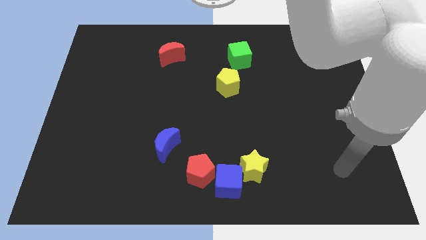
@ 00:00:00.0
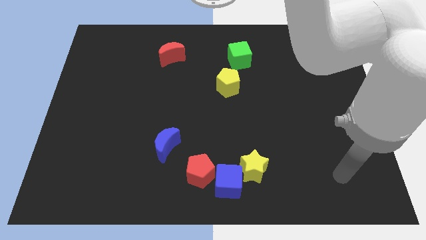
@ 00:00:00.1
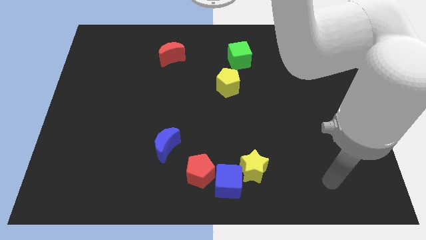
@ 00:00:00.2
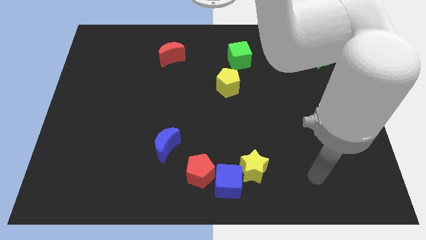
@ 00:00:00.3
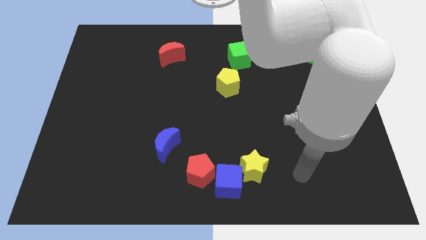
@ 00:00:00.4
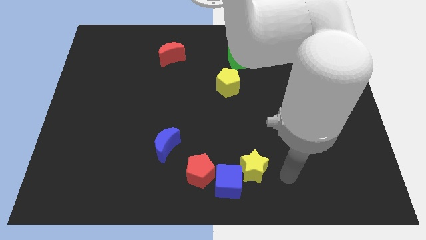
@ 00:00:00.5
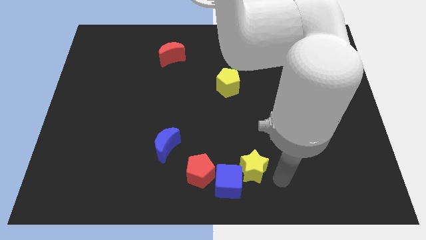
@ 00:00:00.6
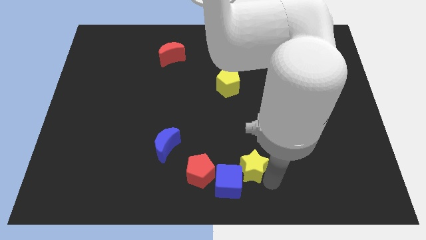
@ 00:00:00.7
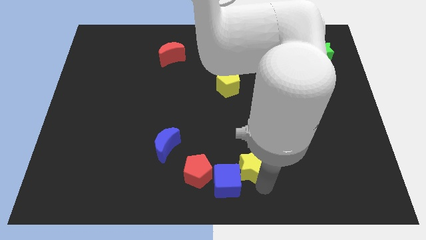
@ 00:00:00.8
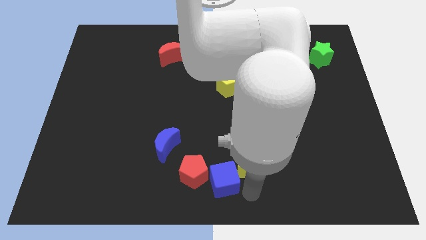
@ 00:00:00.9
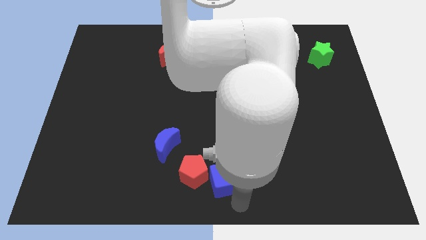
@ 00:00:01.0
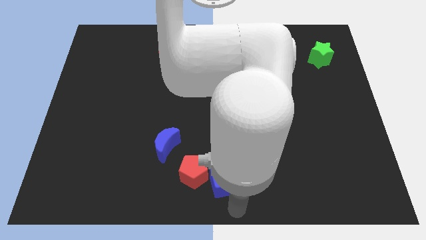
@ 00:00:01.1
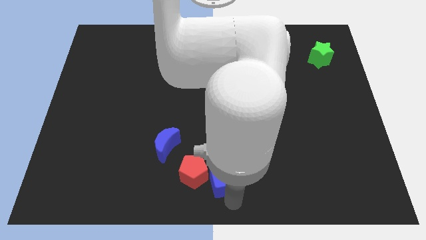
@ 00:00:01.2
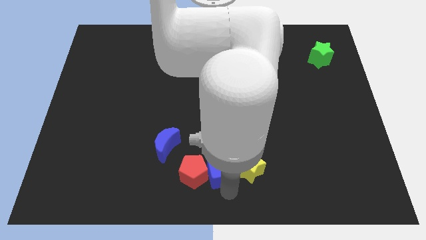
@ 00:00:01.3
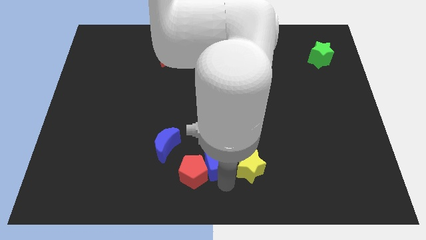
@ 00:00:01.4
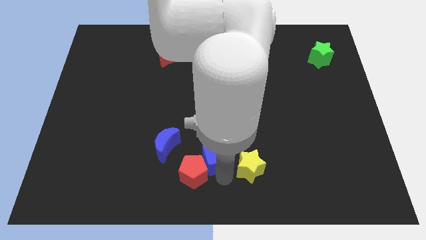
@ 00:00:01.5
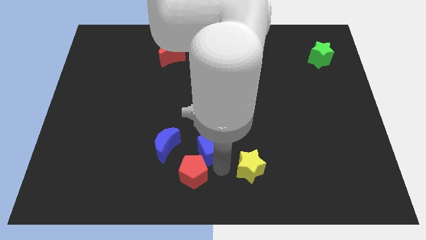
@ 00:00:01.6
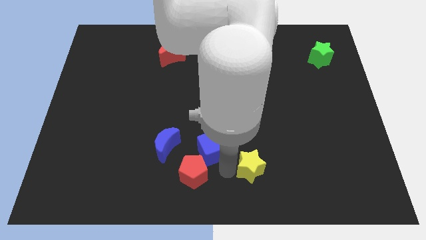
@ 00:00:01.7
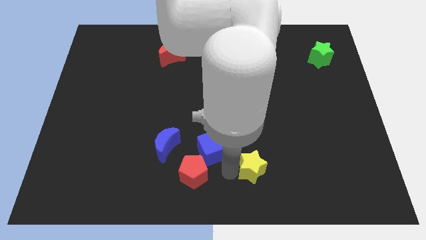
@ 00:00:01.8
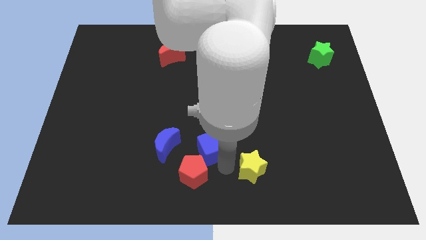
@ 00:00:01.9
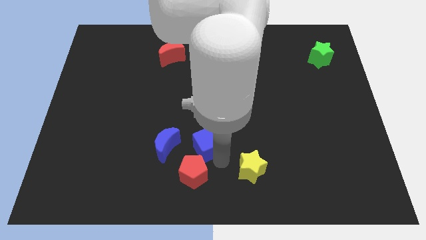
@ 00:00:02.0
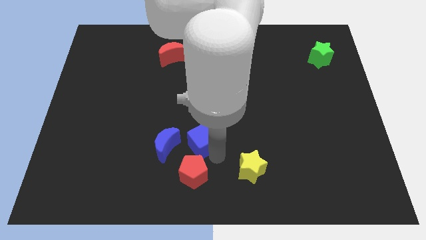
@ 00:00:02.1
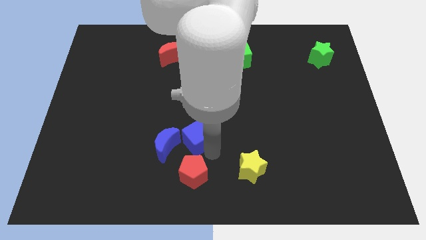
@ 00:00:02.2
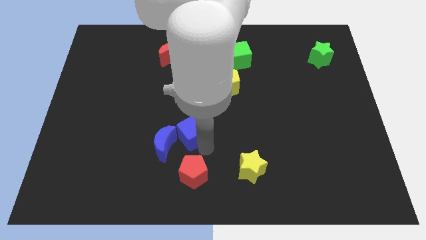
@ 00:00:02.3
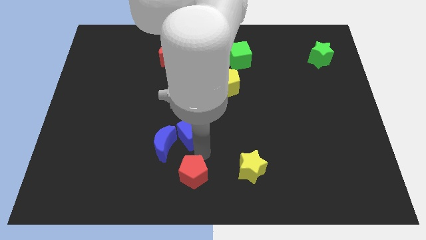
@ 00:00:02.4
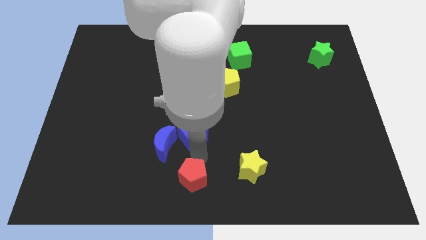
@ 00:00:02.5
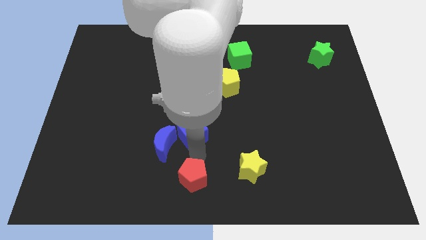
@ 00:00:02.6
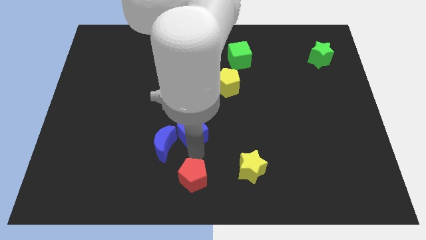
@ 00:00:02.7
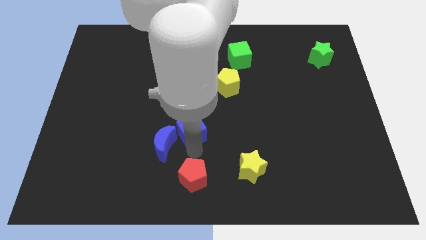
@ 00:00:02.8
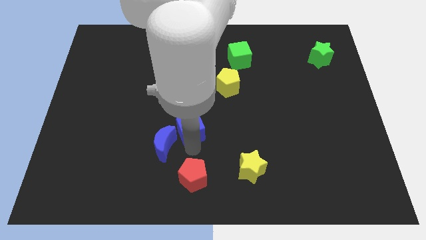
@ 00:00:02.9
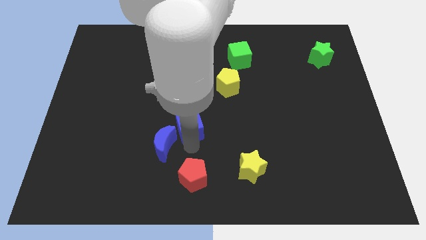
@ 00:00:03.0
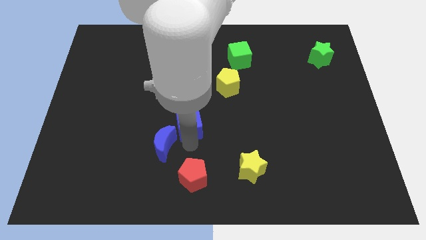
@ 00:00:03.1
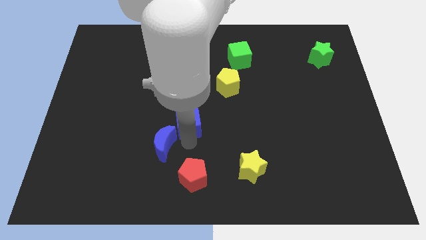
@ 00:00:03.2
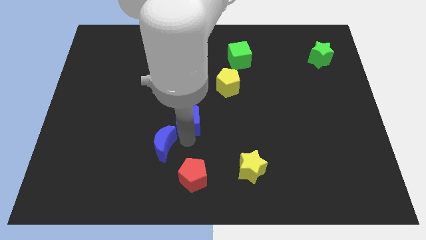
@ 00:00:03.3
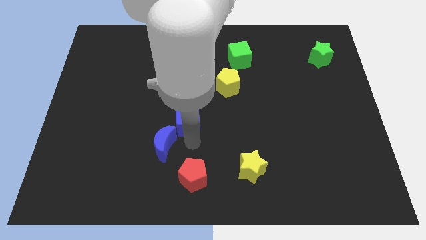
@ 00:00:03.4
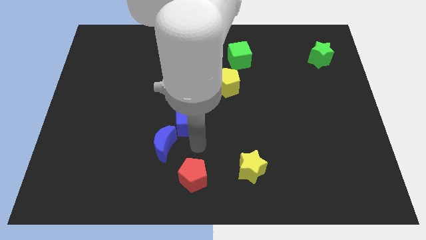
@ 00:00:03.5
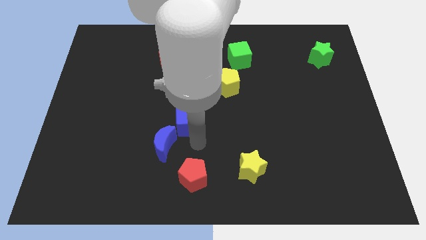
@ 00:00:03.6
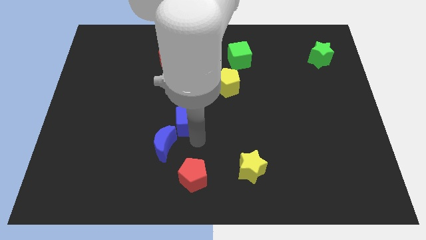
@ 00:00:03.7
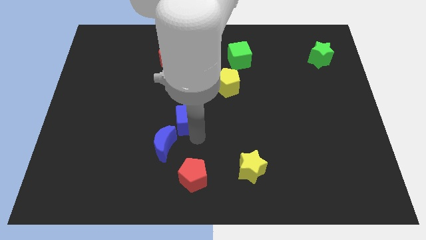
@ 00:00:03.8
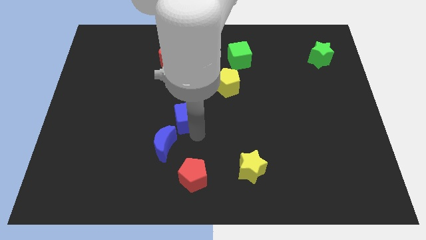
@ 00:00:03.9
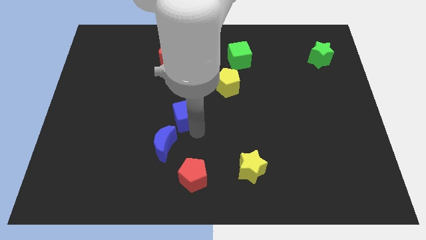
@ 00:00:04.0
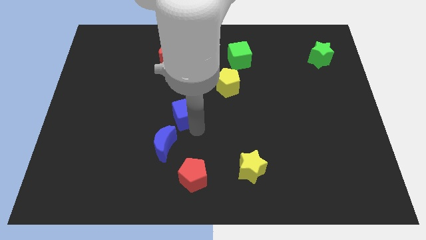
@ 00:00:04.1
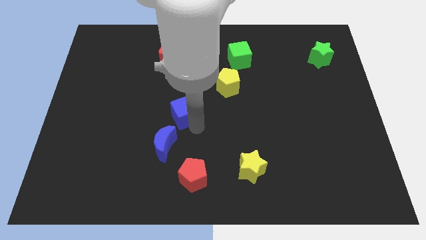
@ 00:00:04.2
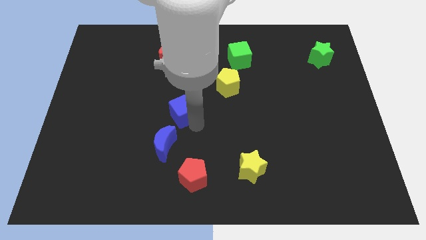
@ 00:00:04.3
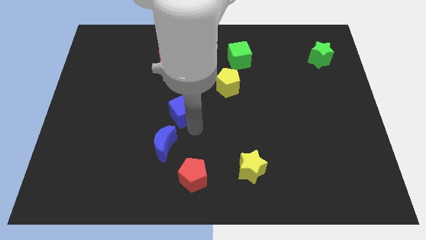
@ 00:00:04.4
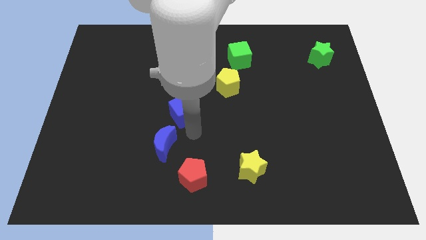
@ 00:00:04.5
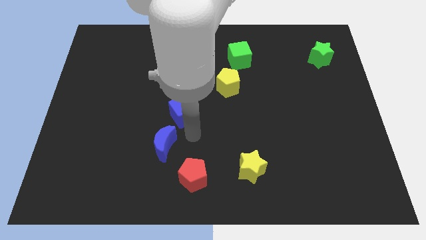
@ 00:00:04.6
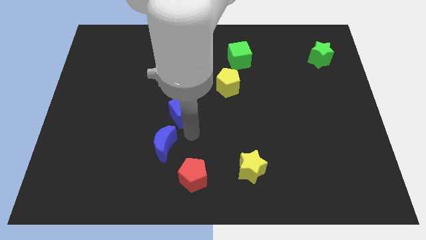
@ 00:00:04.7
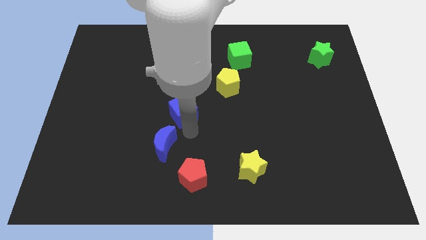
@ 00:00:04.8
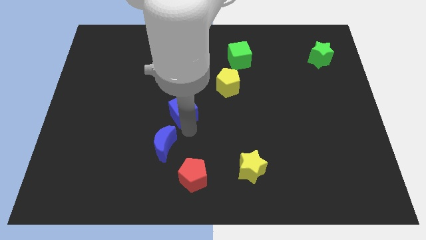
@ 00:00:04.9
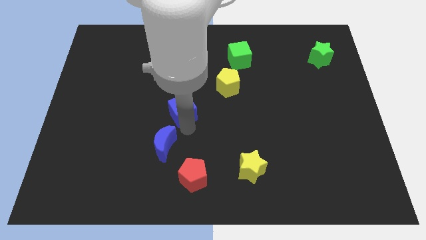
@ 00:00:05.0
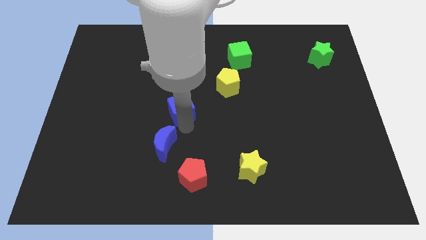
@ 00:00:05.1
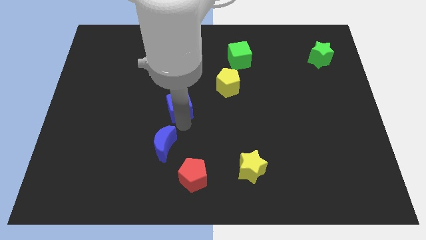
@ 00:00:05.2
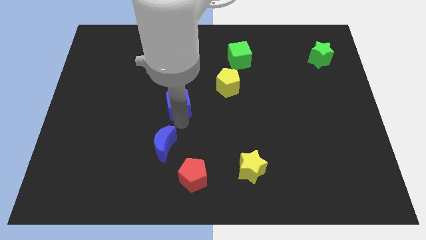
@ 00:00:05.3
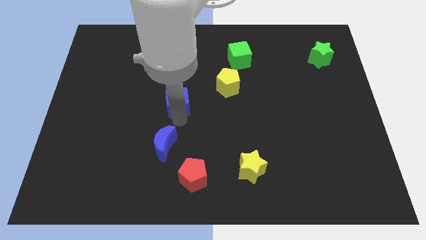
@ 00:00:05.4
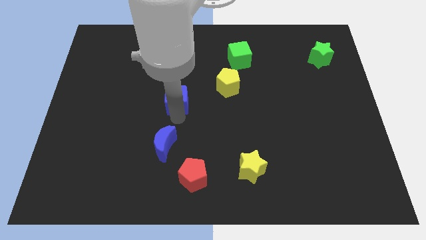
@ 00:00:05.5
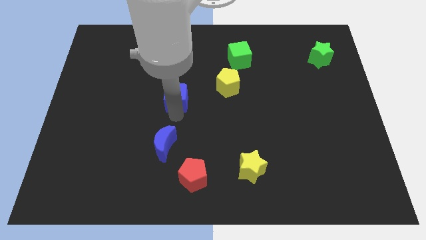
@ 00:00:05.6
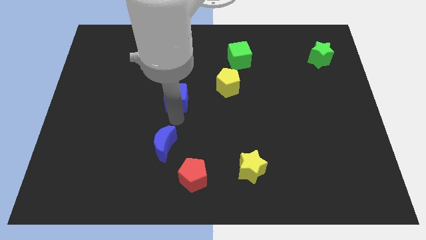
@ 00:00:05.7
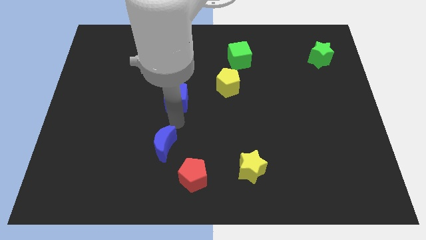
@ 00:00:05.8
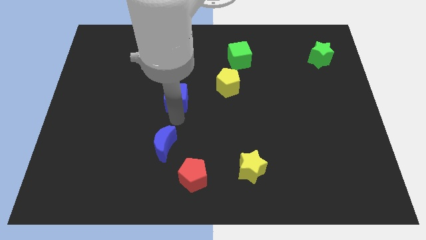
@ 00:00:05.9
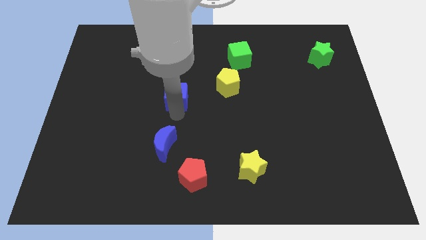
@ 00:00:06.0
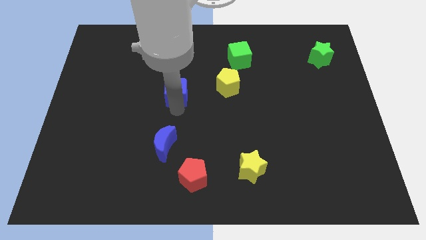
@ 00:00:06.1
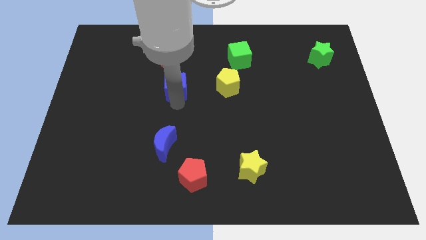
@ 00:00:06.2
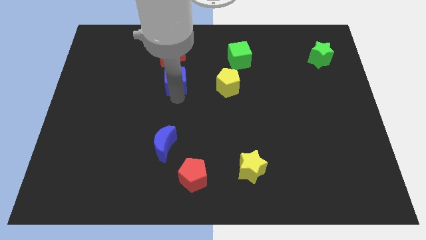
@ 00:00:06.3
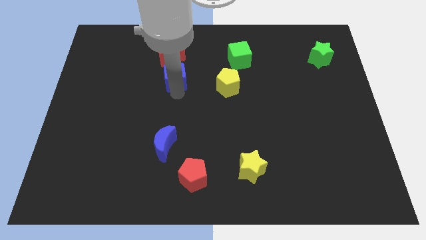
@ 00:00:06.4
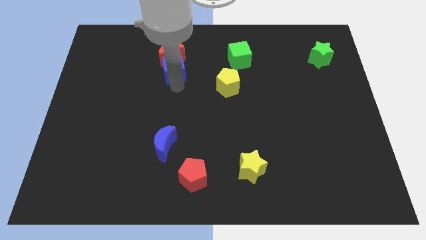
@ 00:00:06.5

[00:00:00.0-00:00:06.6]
put the blue cube towards the red moon

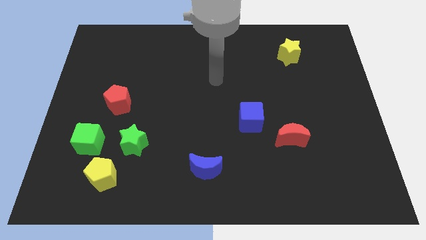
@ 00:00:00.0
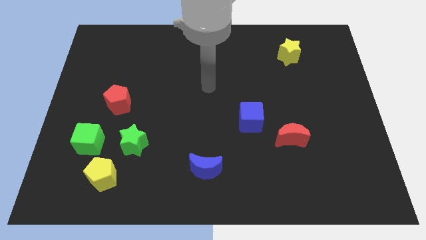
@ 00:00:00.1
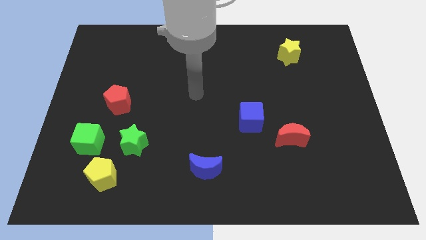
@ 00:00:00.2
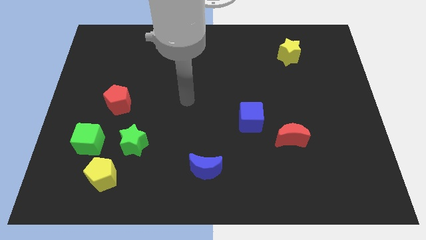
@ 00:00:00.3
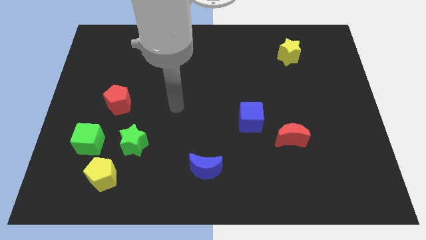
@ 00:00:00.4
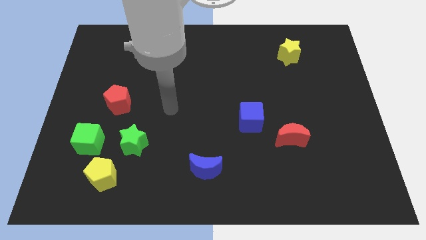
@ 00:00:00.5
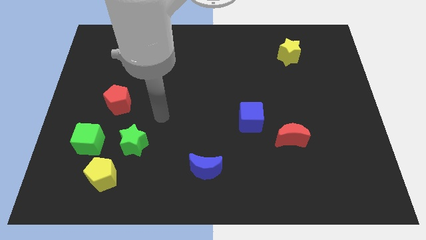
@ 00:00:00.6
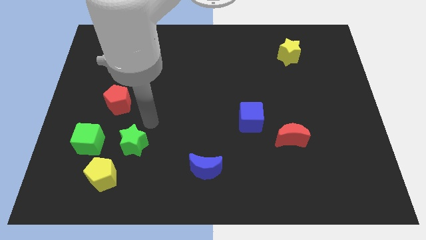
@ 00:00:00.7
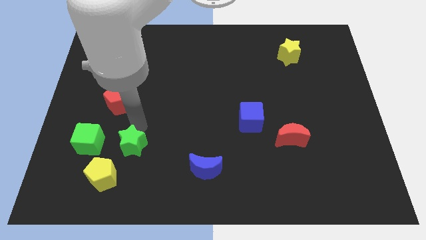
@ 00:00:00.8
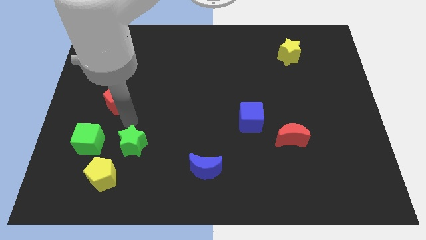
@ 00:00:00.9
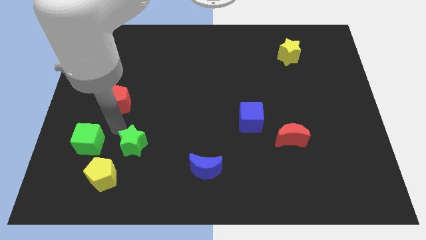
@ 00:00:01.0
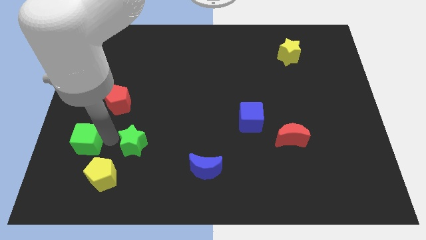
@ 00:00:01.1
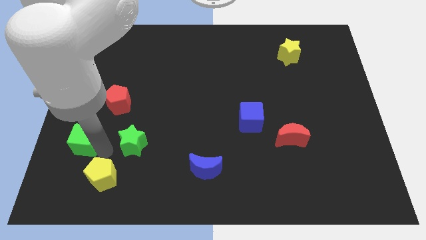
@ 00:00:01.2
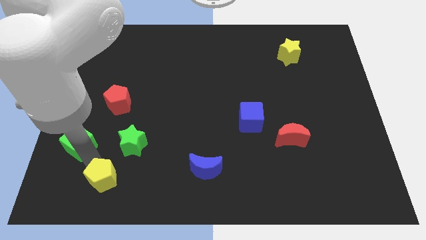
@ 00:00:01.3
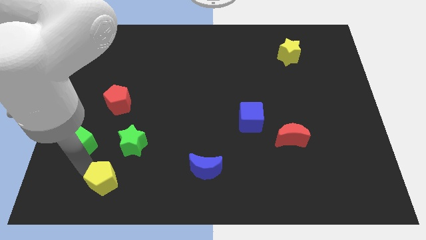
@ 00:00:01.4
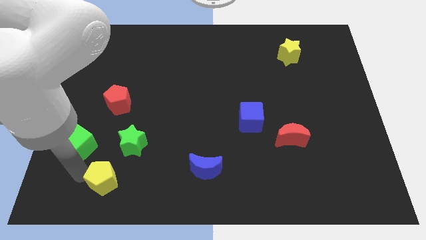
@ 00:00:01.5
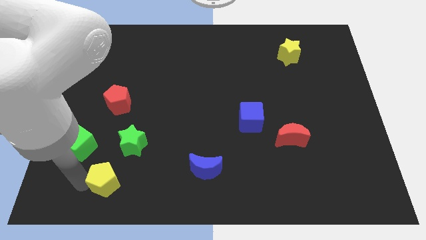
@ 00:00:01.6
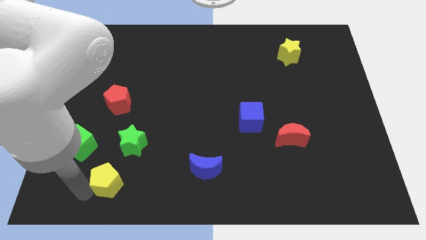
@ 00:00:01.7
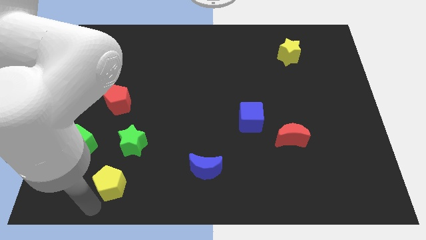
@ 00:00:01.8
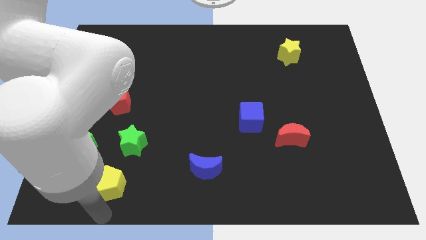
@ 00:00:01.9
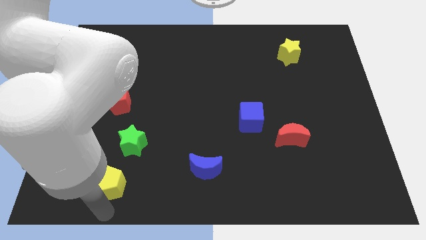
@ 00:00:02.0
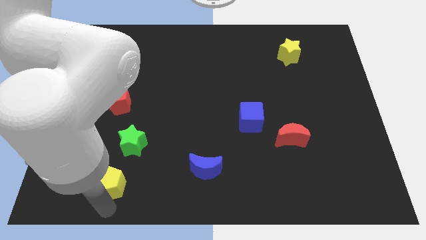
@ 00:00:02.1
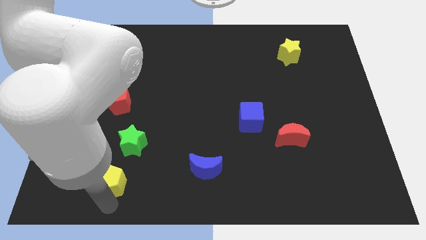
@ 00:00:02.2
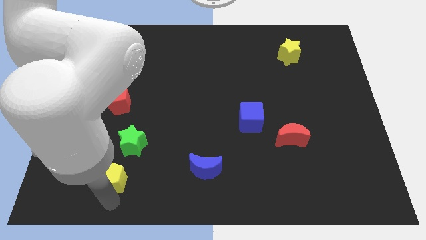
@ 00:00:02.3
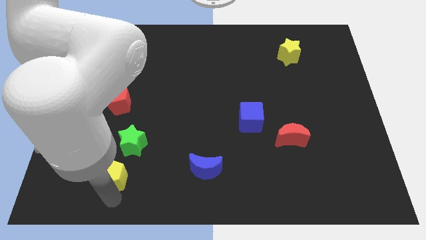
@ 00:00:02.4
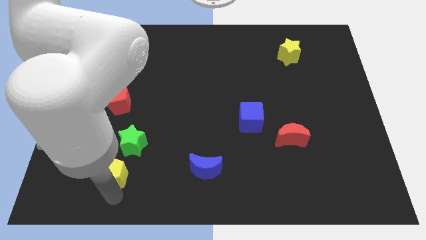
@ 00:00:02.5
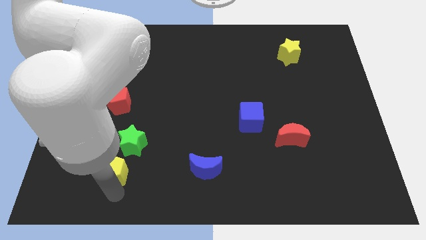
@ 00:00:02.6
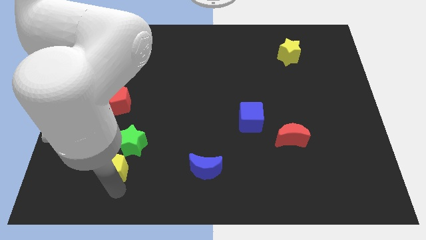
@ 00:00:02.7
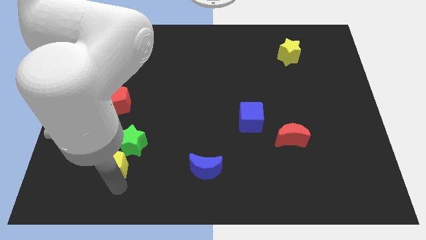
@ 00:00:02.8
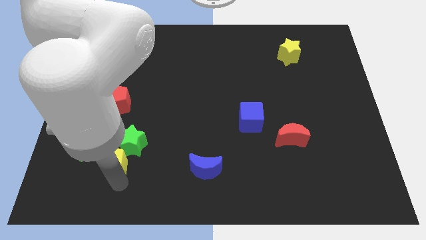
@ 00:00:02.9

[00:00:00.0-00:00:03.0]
put the yellow pentagon next to the green star
